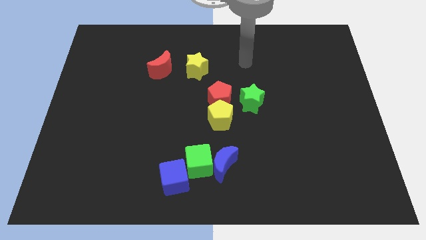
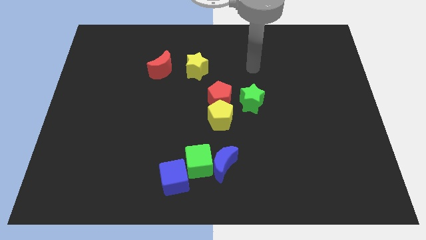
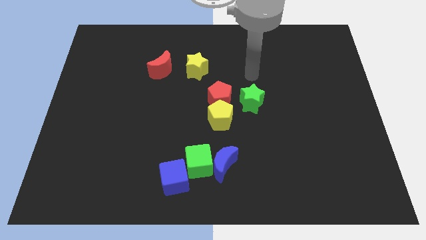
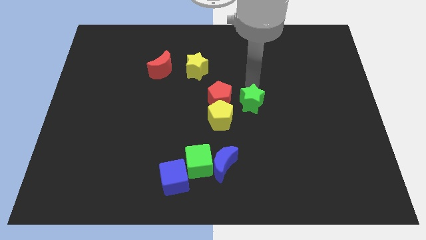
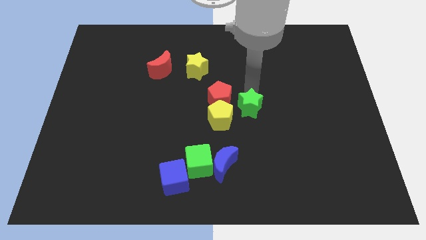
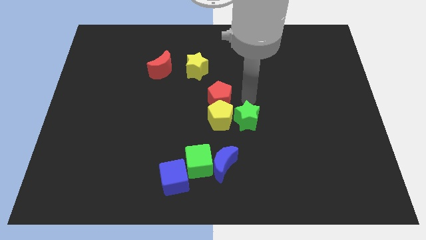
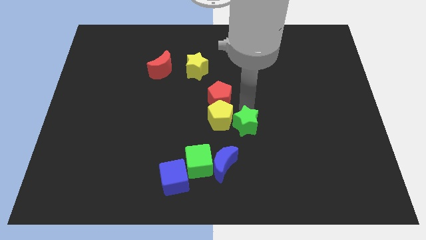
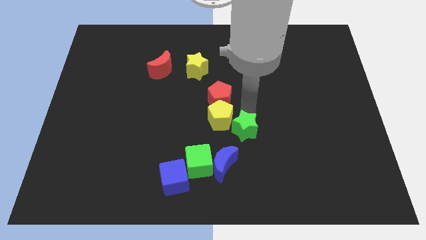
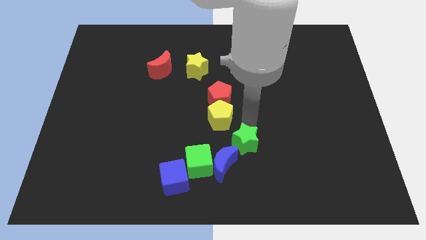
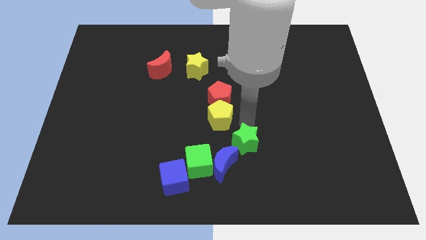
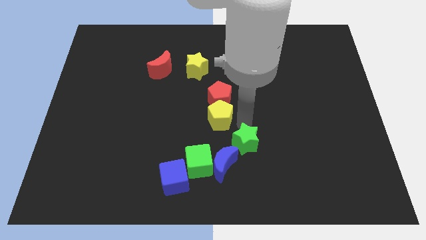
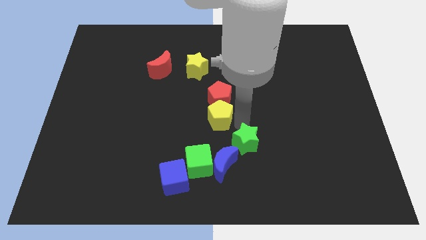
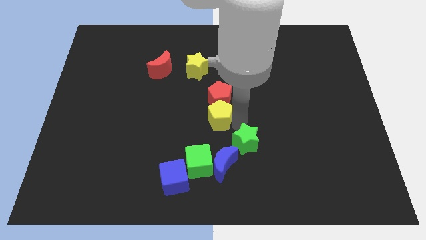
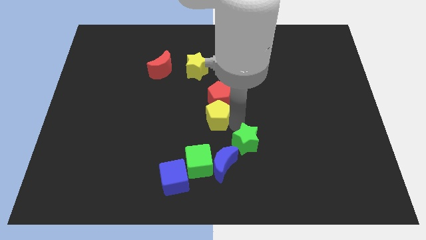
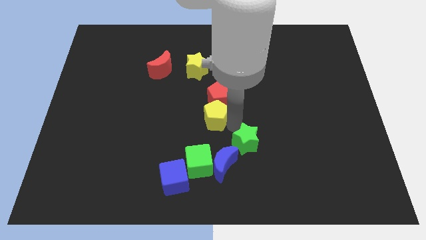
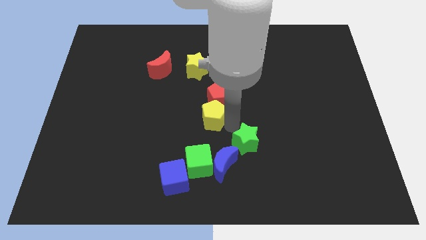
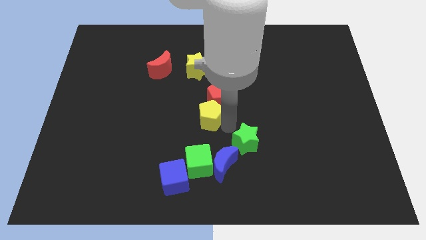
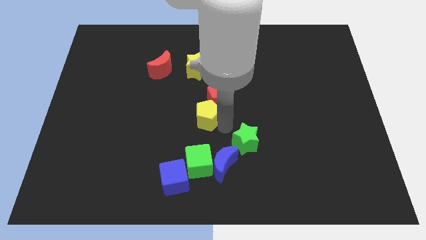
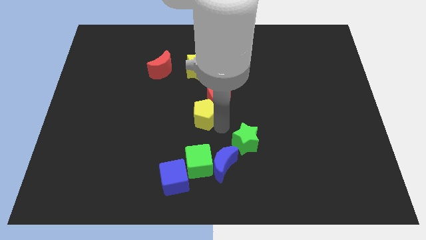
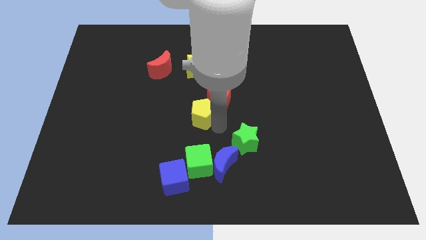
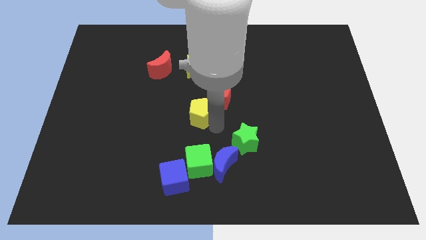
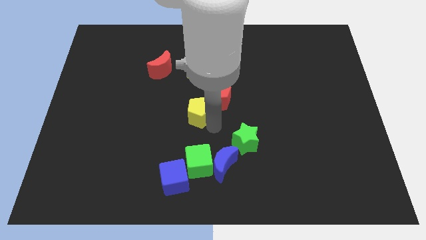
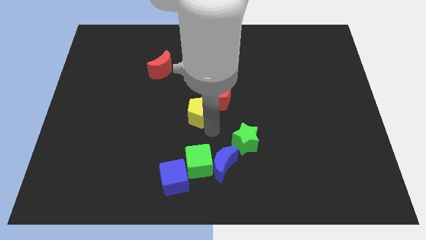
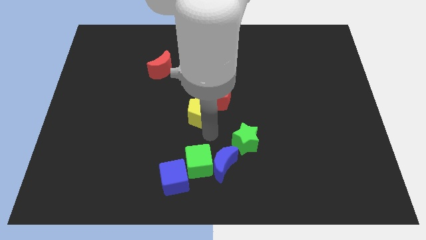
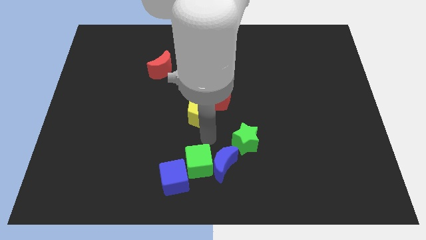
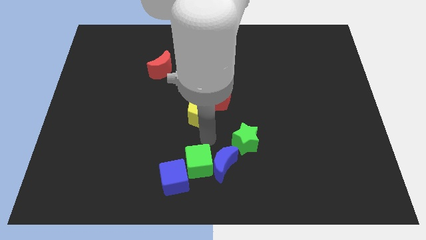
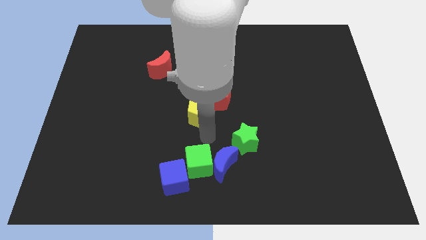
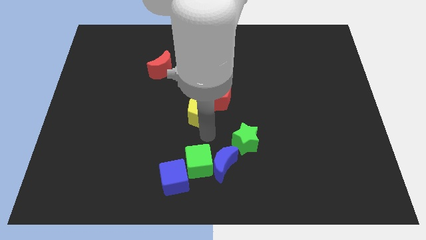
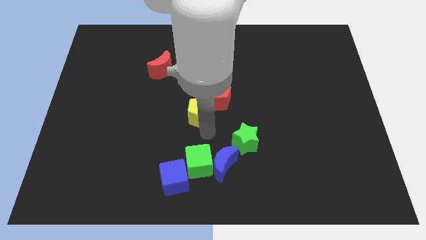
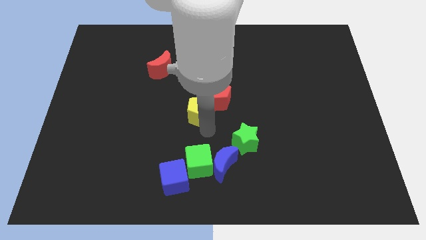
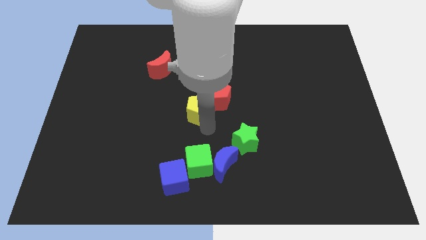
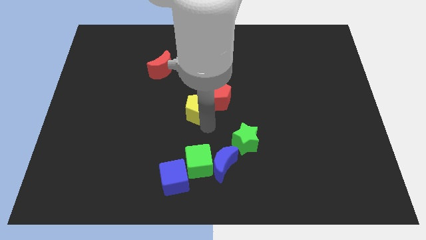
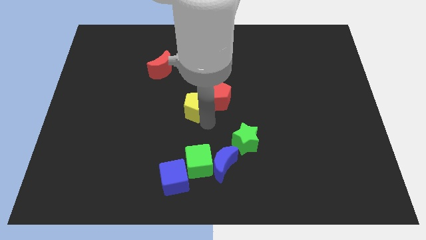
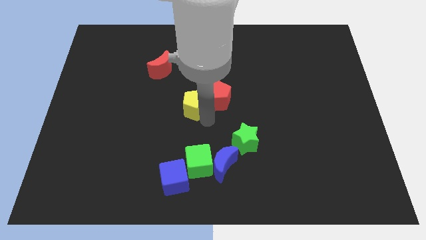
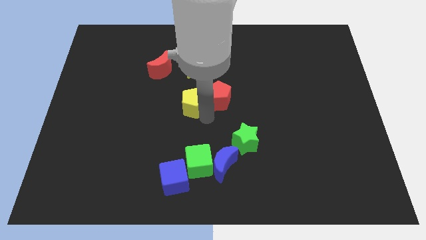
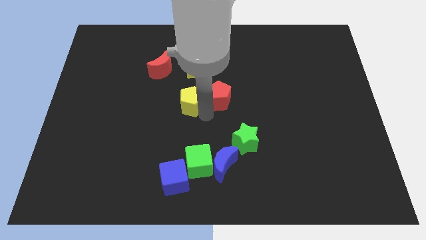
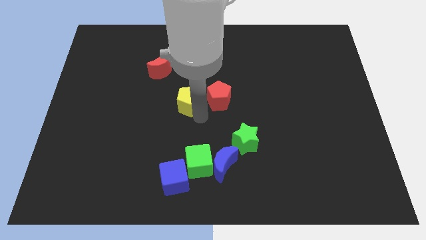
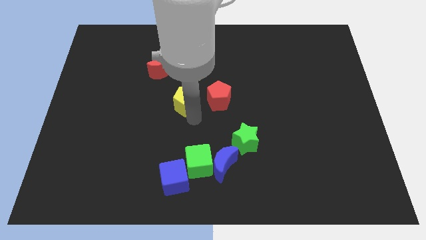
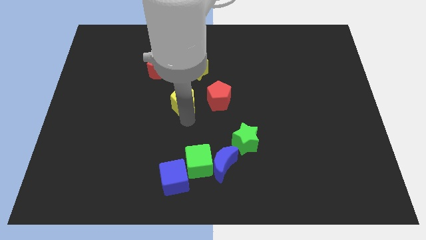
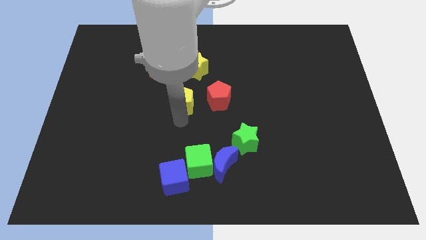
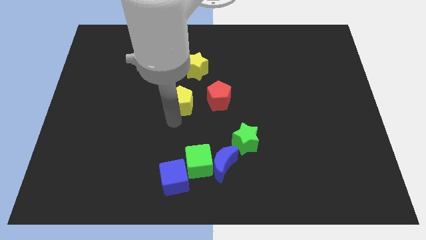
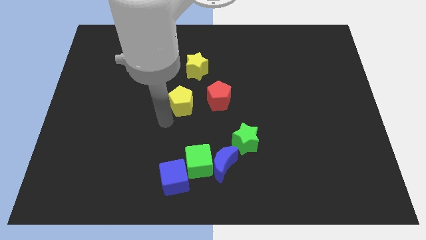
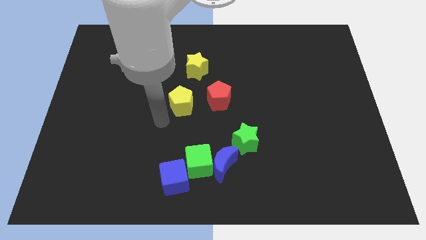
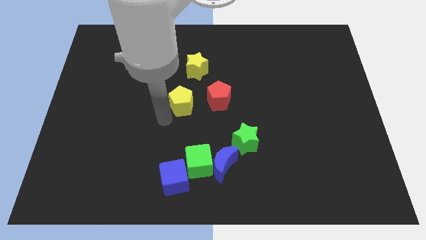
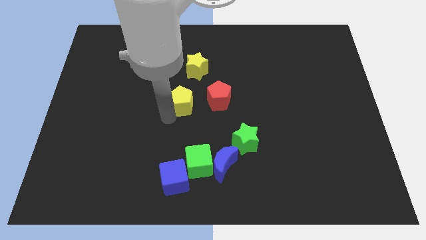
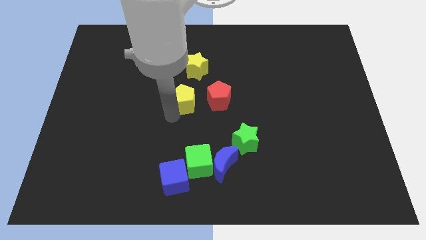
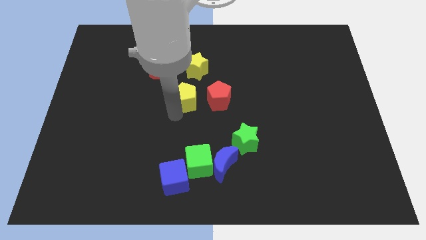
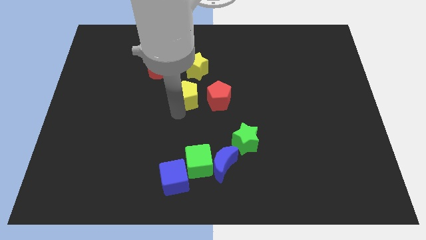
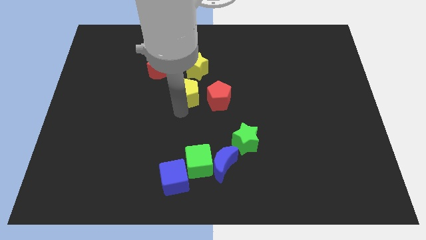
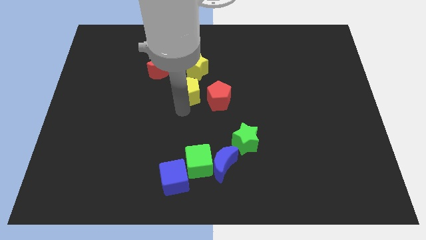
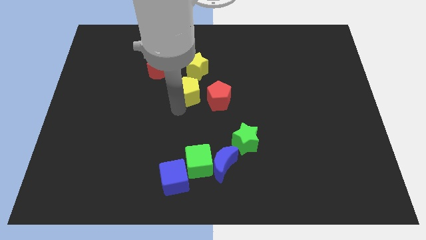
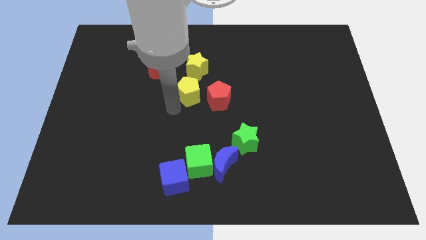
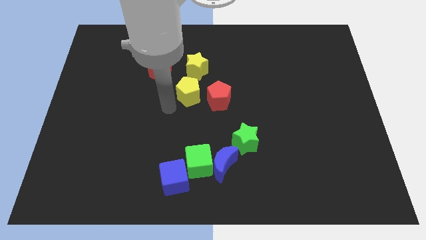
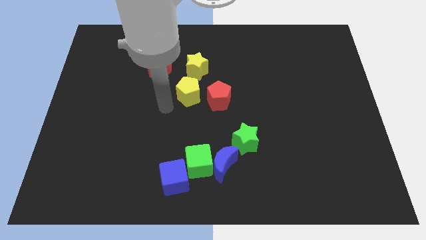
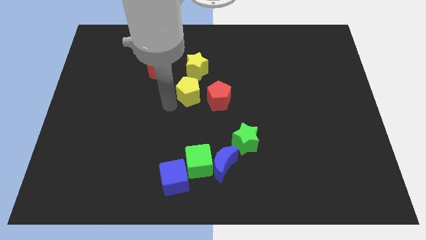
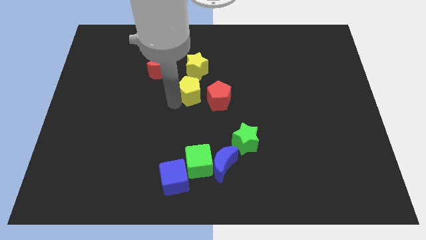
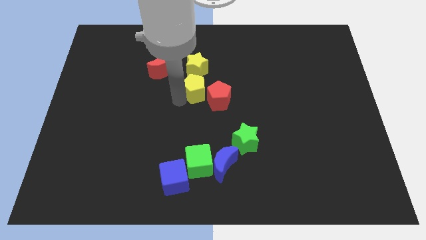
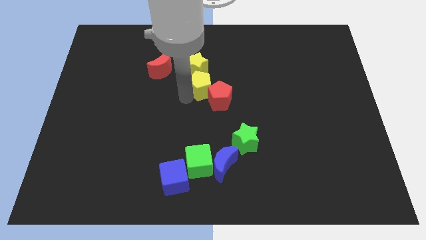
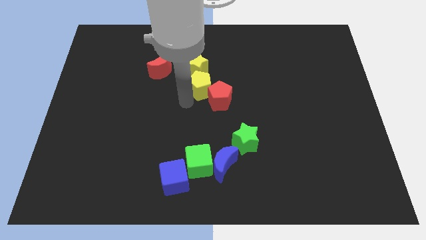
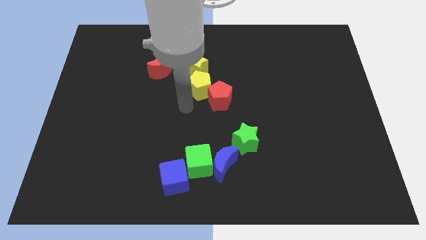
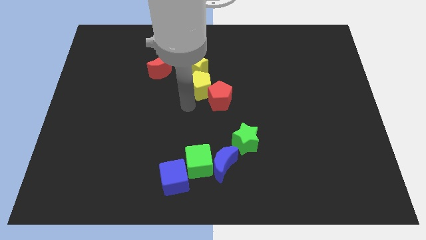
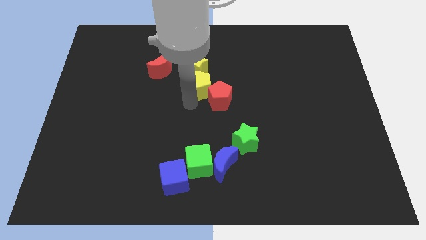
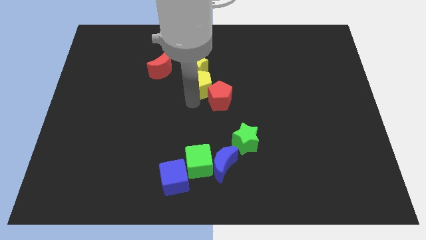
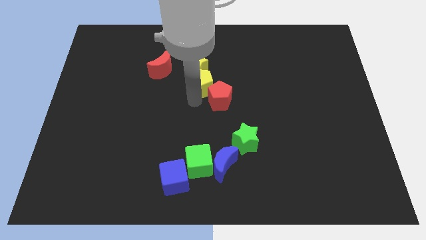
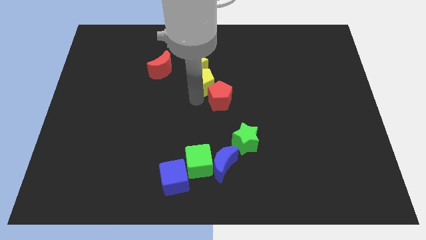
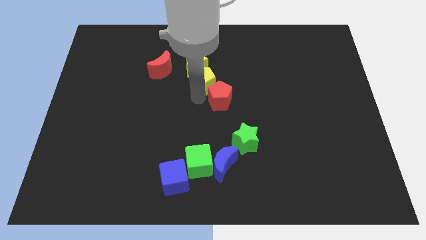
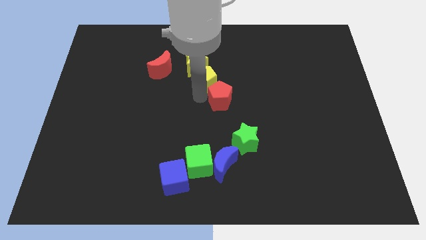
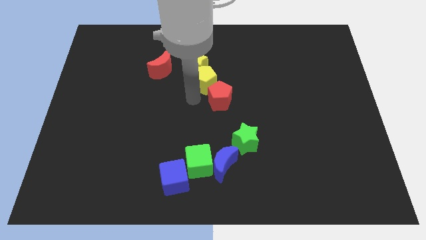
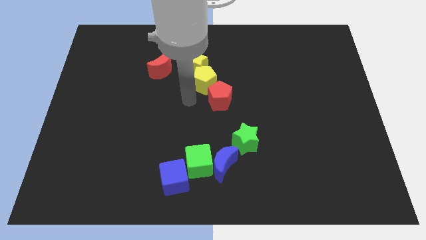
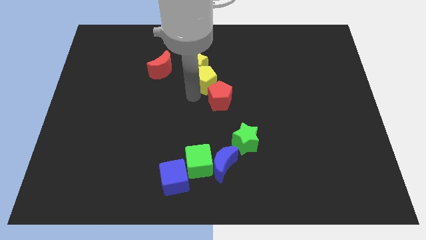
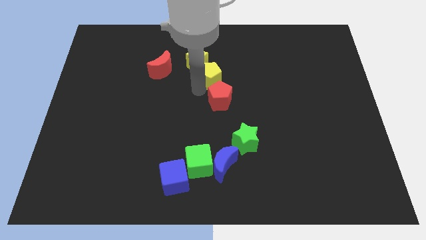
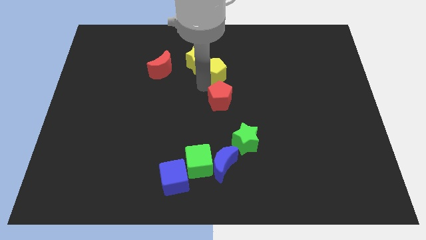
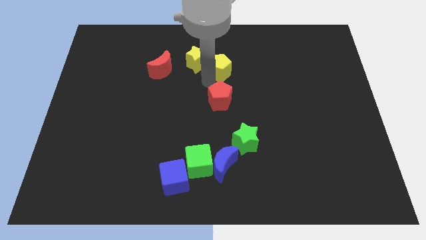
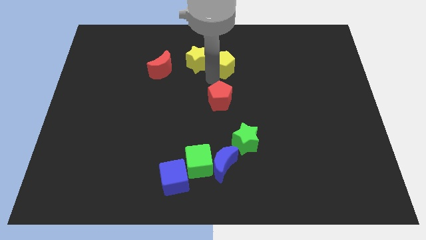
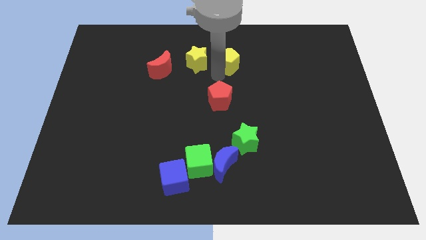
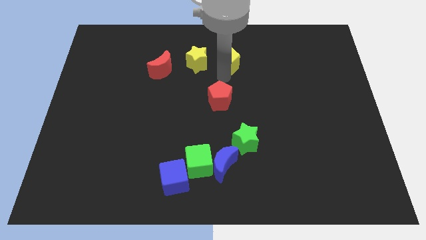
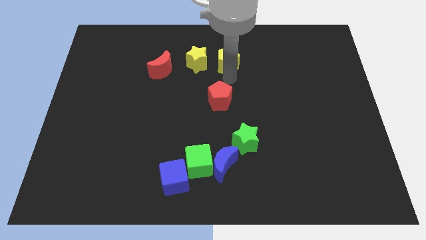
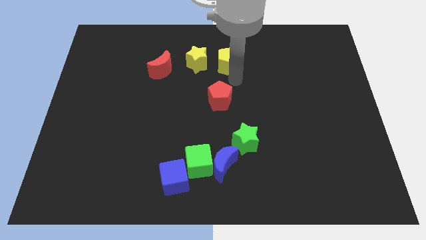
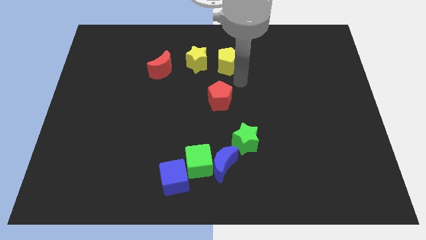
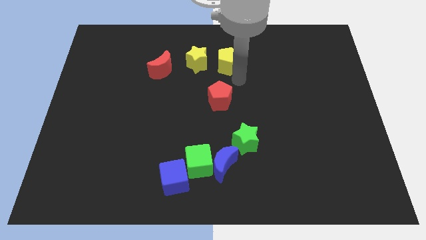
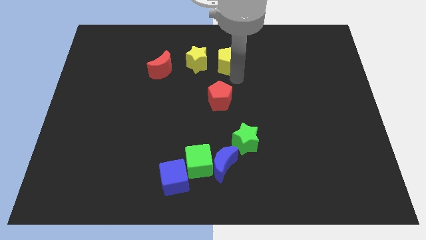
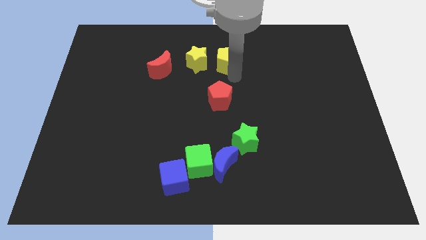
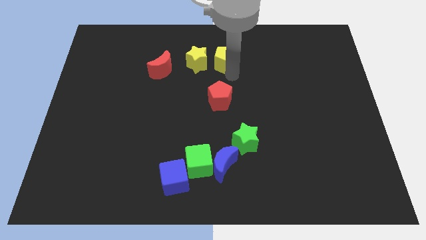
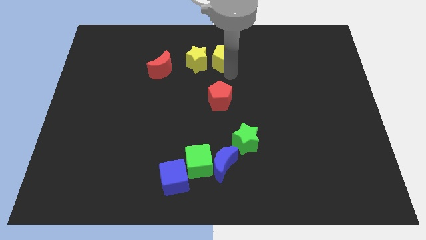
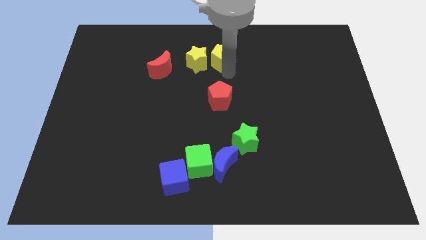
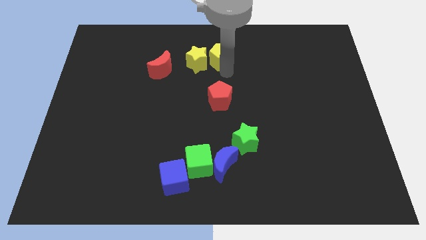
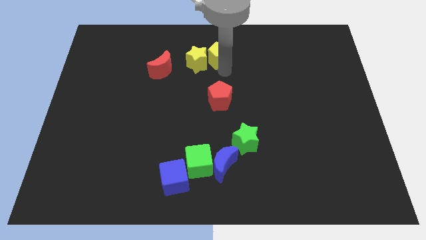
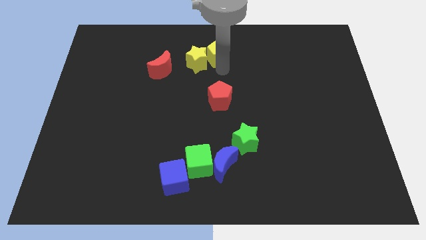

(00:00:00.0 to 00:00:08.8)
move the yellow pentagon to the top side
